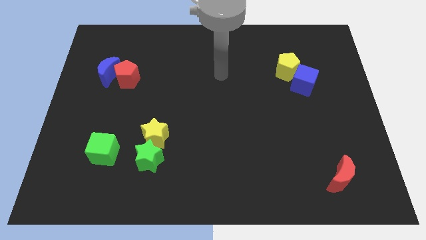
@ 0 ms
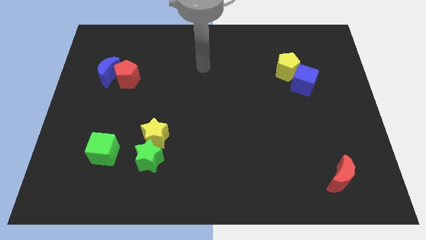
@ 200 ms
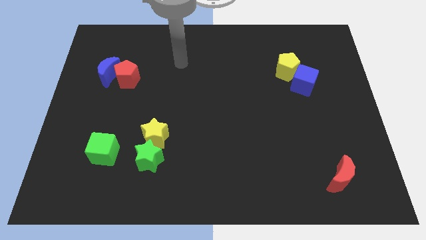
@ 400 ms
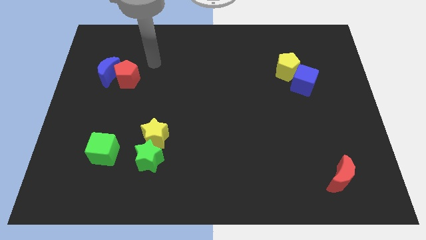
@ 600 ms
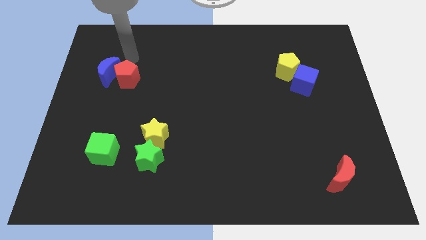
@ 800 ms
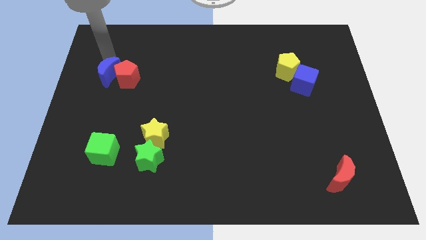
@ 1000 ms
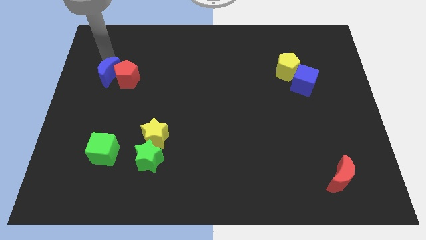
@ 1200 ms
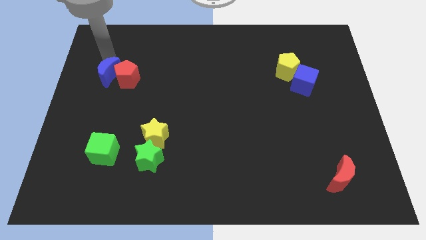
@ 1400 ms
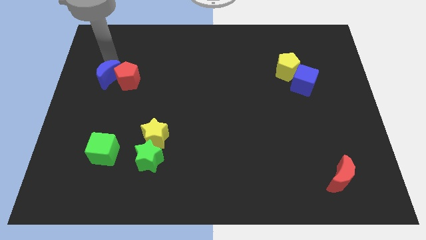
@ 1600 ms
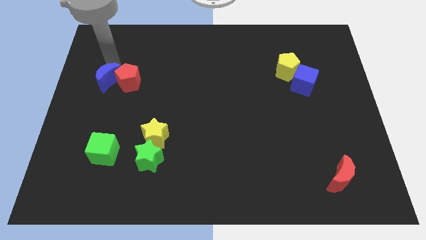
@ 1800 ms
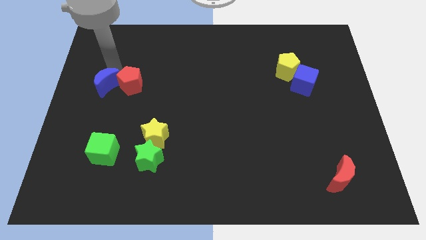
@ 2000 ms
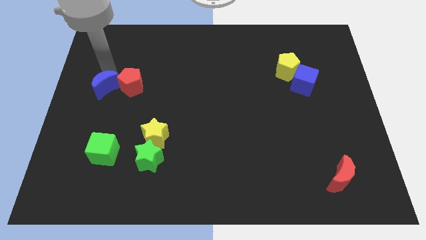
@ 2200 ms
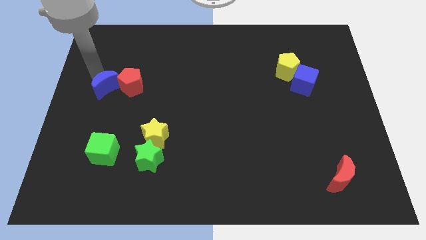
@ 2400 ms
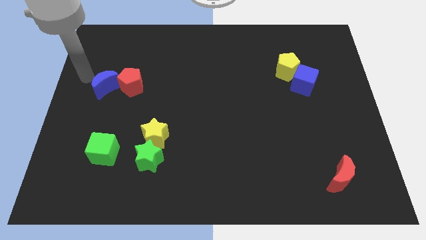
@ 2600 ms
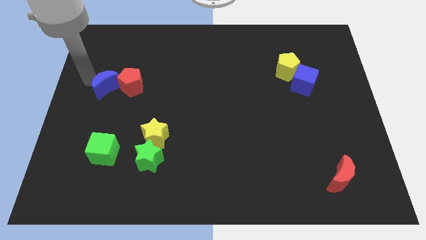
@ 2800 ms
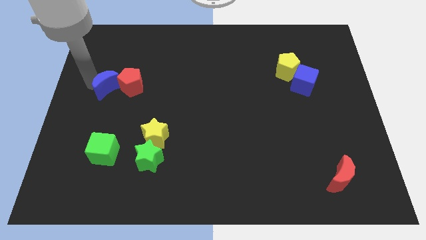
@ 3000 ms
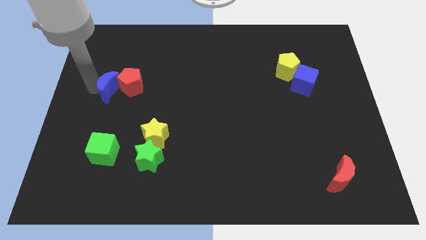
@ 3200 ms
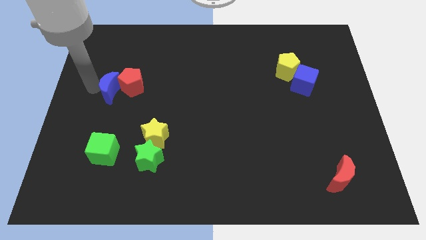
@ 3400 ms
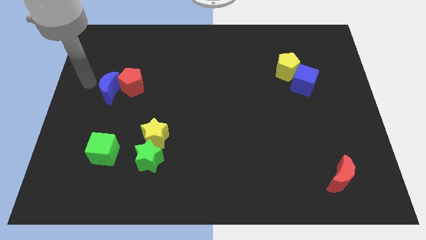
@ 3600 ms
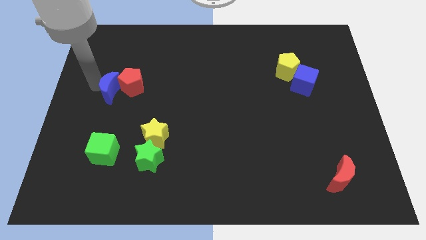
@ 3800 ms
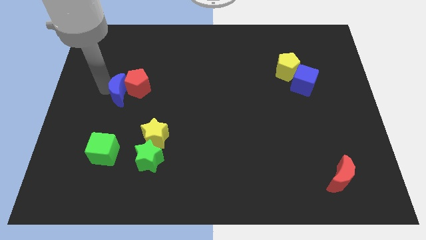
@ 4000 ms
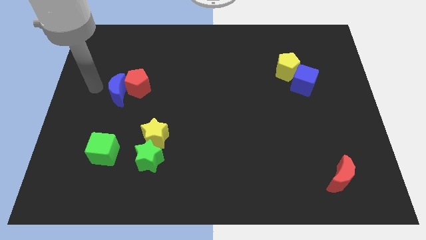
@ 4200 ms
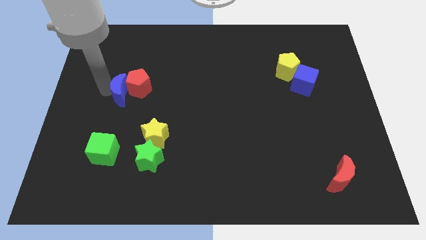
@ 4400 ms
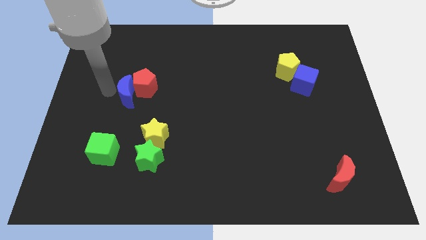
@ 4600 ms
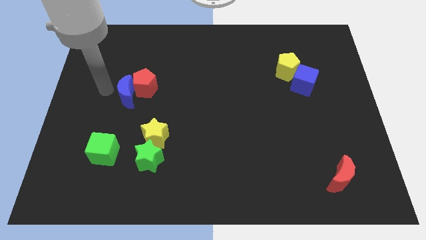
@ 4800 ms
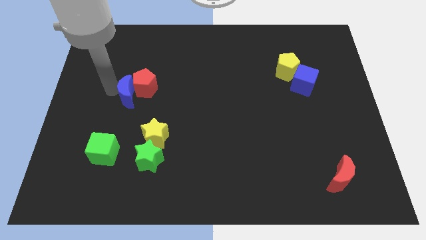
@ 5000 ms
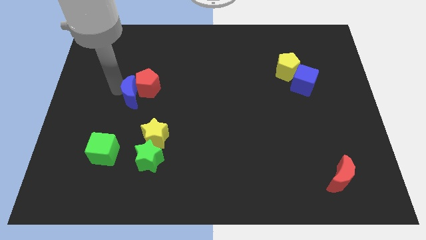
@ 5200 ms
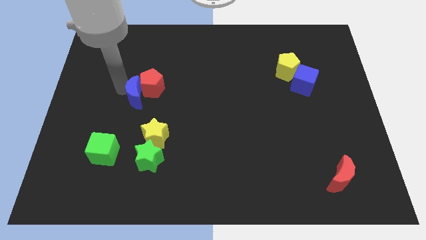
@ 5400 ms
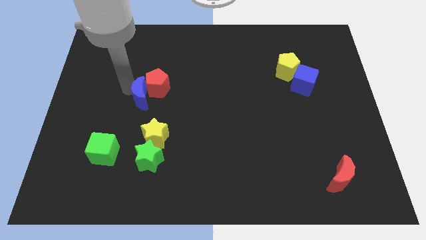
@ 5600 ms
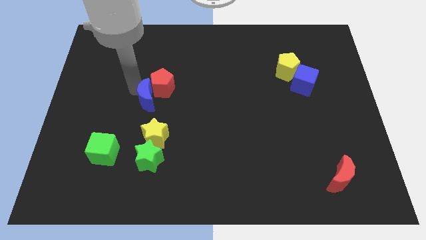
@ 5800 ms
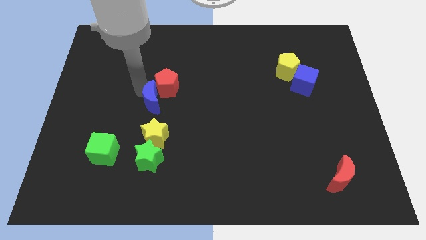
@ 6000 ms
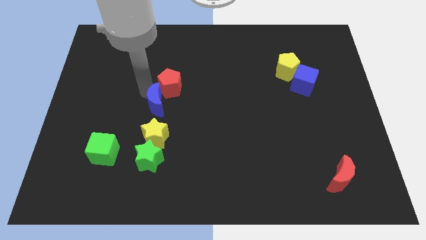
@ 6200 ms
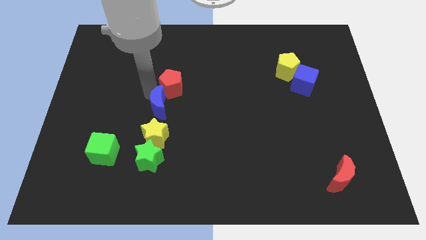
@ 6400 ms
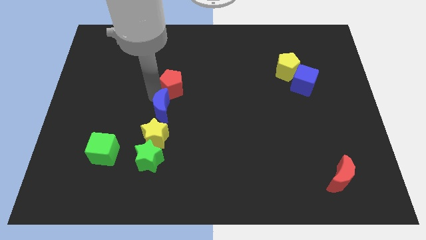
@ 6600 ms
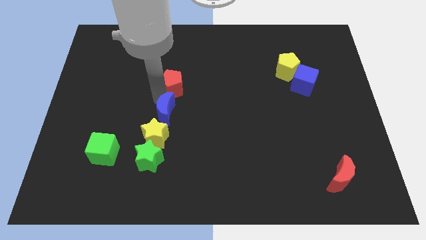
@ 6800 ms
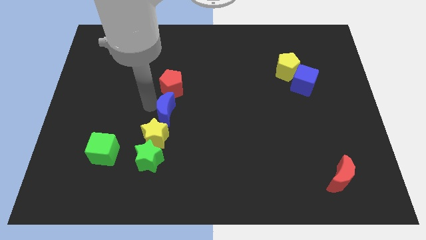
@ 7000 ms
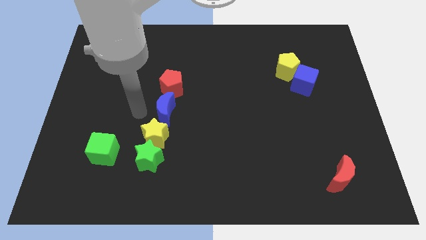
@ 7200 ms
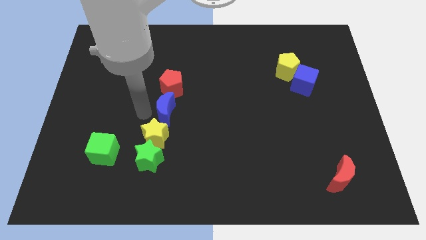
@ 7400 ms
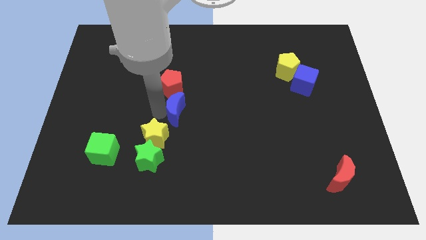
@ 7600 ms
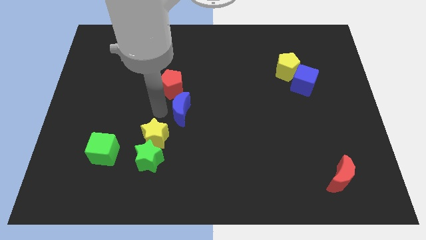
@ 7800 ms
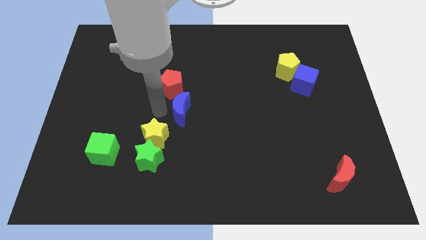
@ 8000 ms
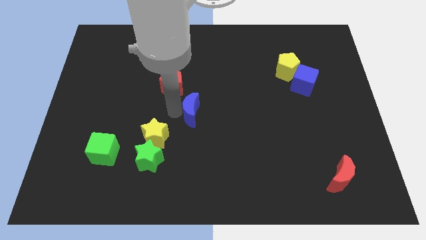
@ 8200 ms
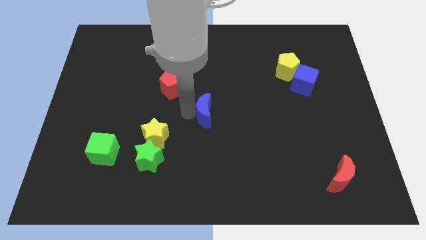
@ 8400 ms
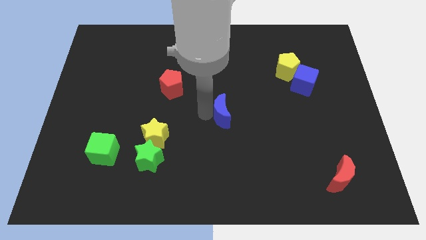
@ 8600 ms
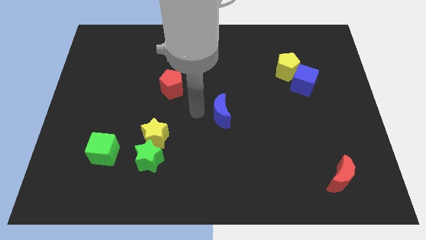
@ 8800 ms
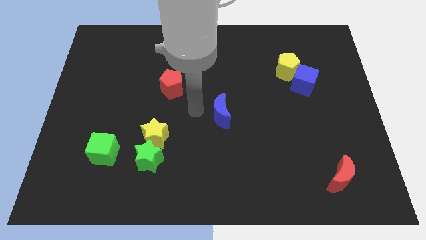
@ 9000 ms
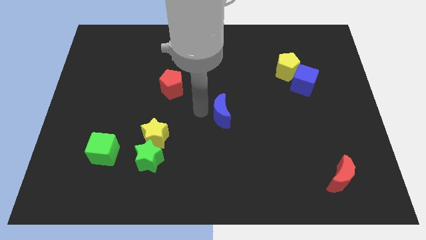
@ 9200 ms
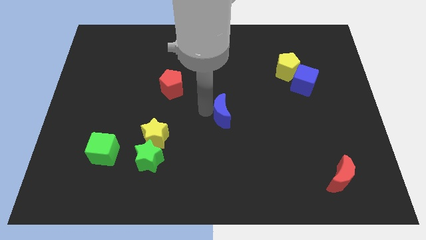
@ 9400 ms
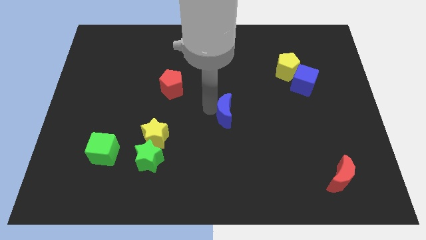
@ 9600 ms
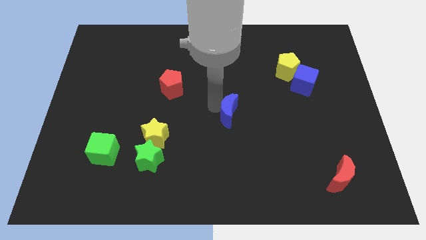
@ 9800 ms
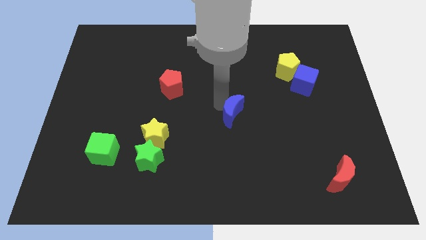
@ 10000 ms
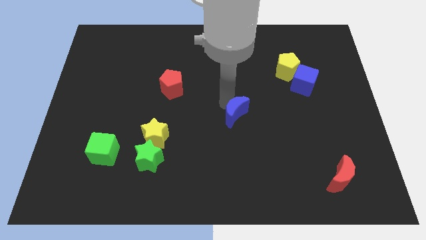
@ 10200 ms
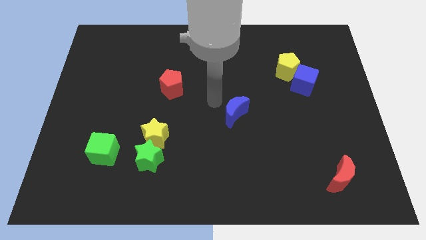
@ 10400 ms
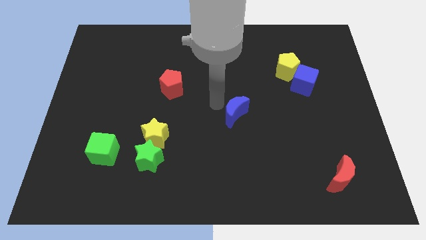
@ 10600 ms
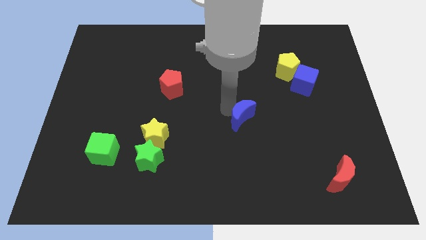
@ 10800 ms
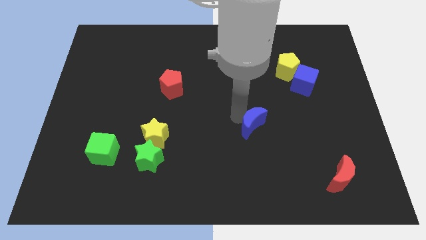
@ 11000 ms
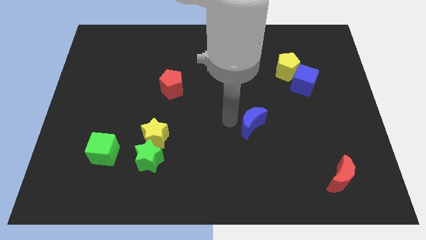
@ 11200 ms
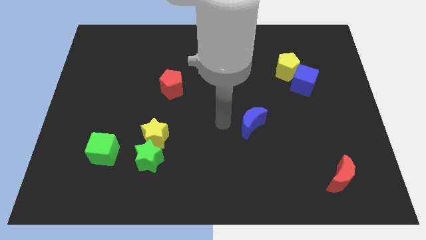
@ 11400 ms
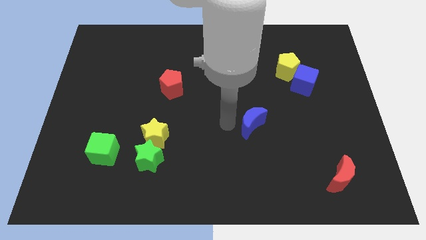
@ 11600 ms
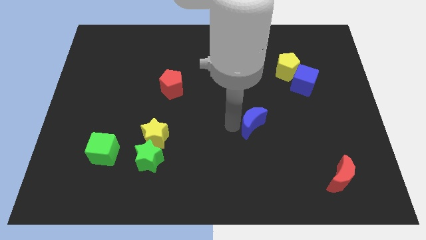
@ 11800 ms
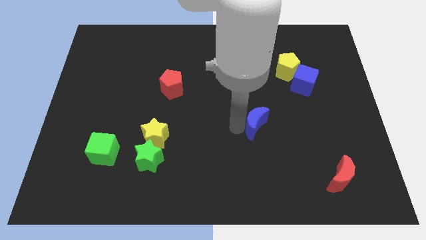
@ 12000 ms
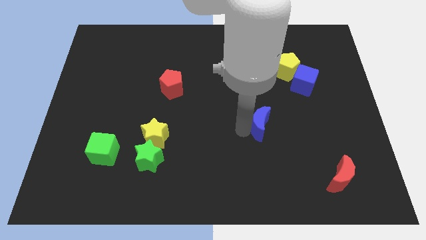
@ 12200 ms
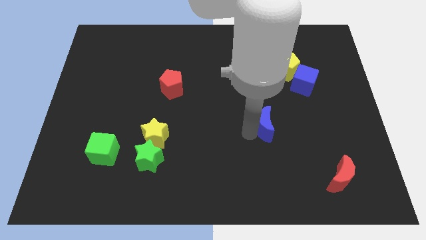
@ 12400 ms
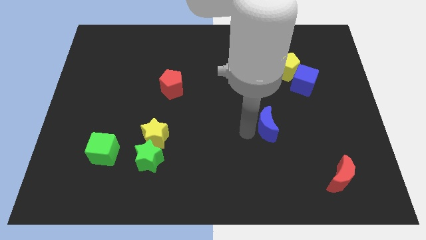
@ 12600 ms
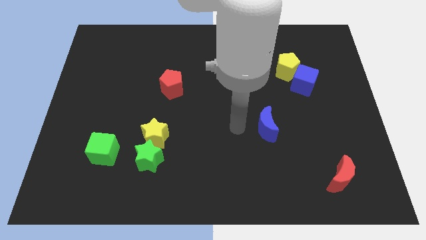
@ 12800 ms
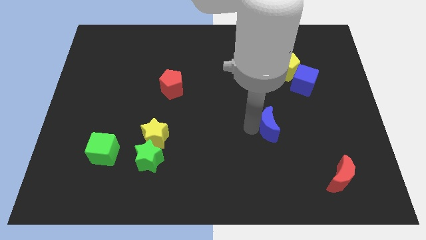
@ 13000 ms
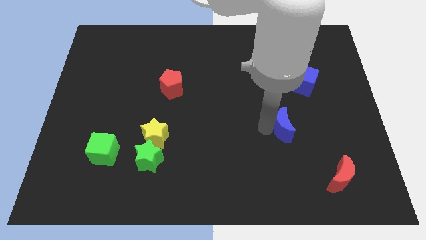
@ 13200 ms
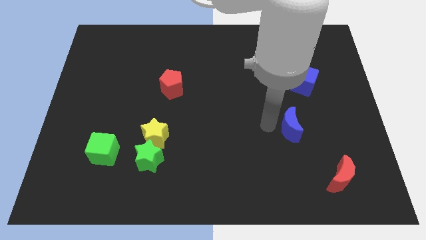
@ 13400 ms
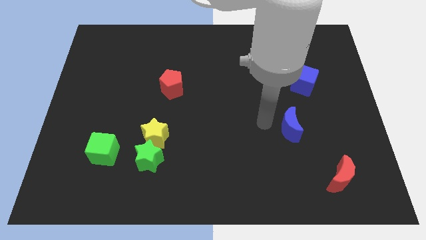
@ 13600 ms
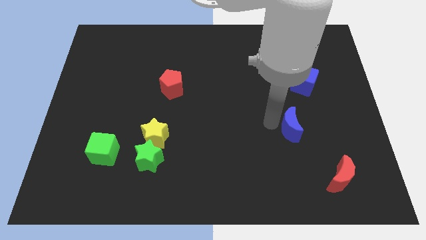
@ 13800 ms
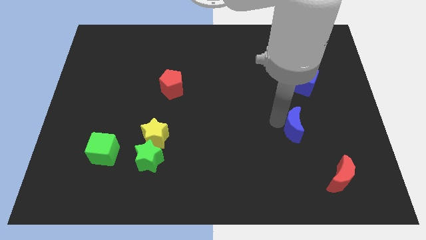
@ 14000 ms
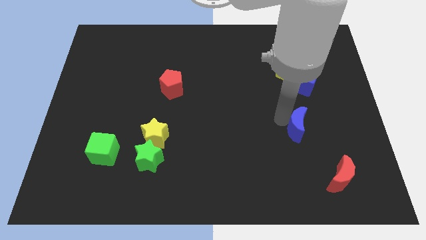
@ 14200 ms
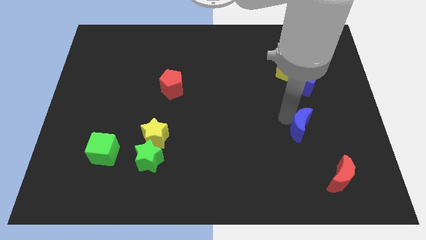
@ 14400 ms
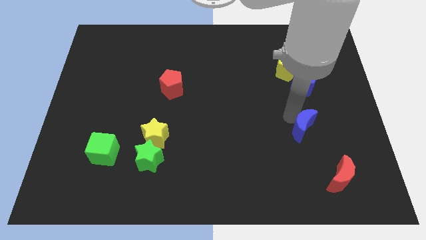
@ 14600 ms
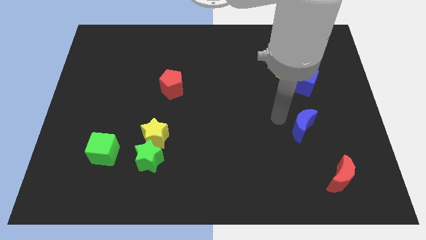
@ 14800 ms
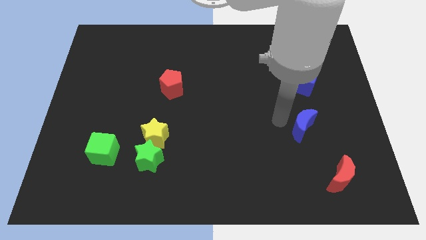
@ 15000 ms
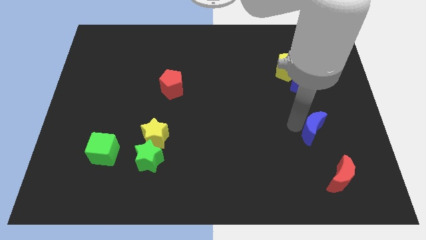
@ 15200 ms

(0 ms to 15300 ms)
push the blue moon to the top side of the red moon
